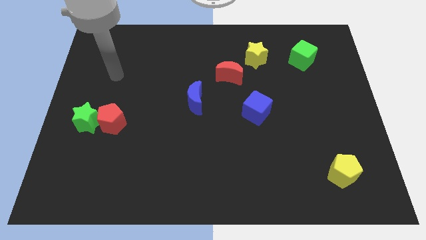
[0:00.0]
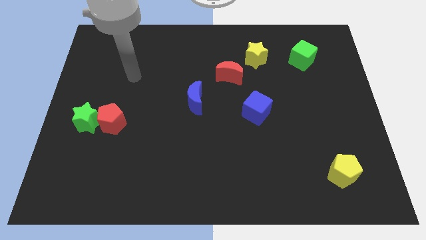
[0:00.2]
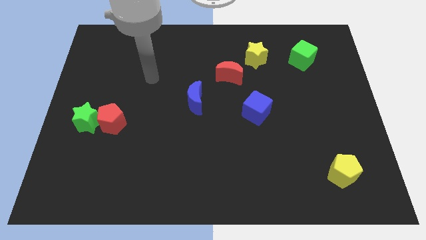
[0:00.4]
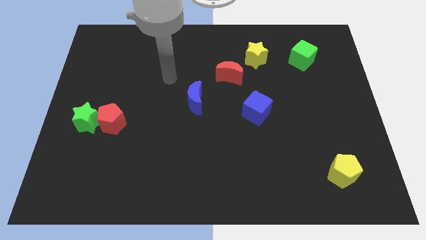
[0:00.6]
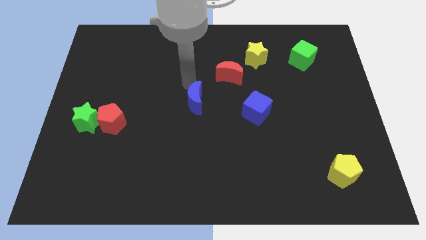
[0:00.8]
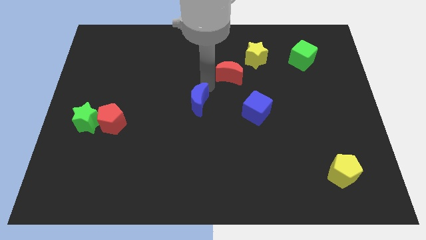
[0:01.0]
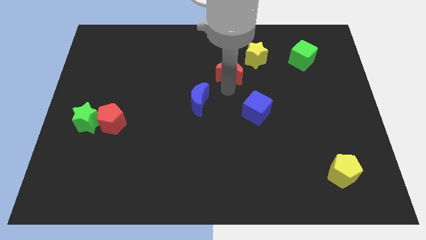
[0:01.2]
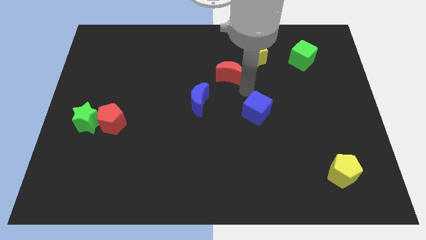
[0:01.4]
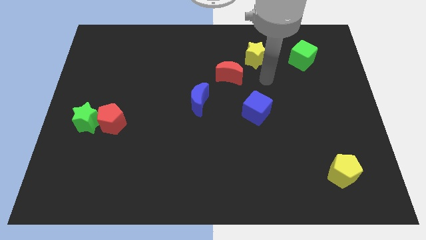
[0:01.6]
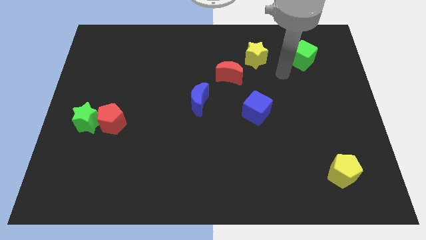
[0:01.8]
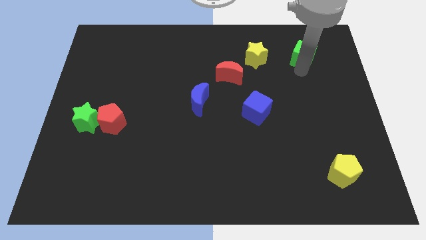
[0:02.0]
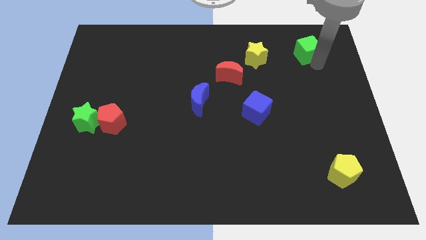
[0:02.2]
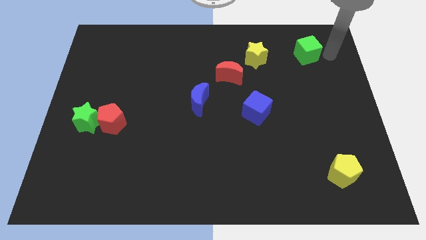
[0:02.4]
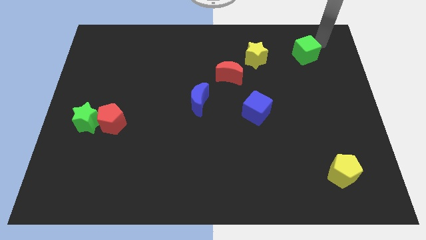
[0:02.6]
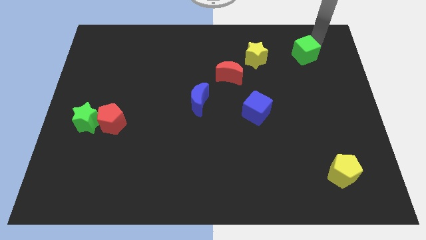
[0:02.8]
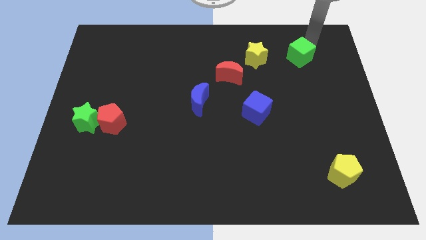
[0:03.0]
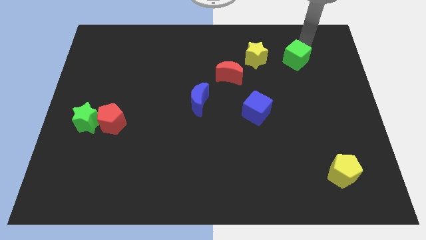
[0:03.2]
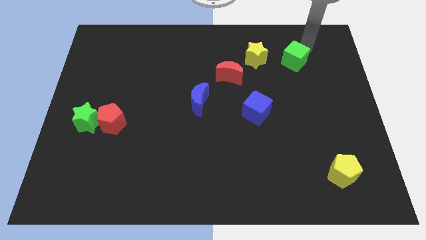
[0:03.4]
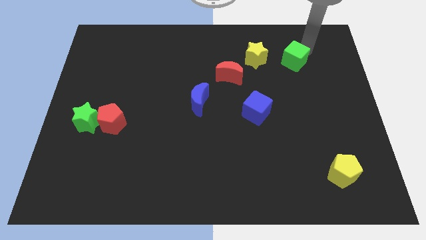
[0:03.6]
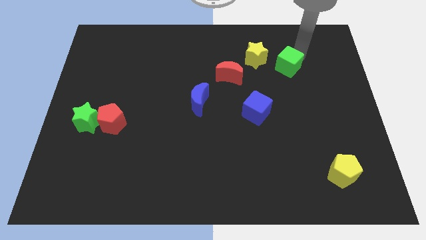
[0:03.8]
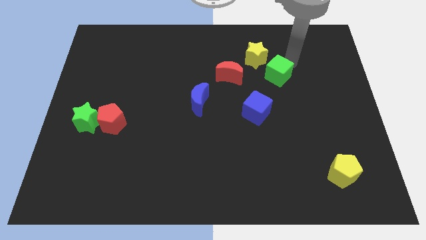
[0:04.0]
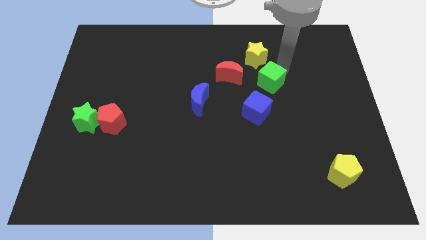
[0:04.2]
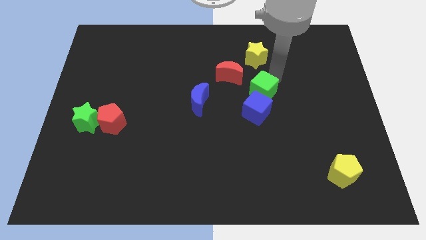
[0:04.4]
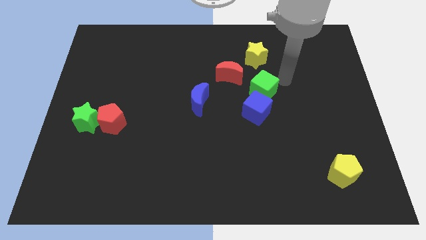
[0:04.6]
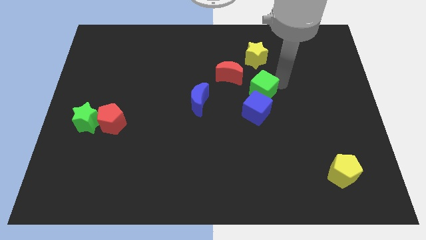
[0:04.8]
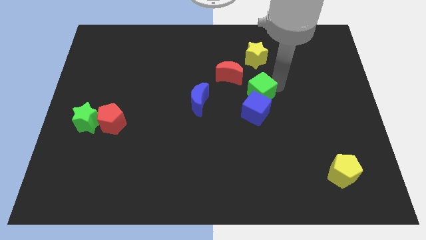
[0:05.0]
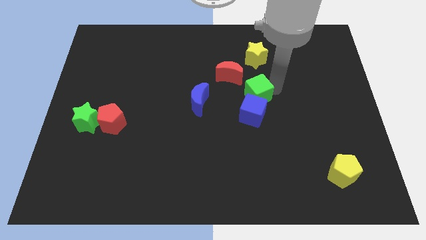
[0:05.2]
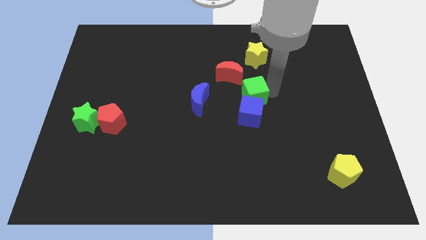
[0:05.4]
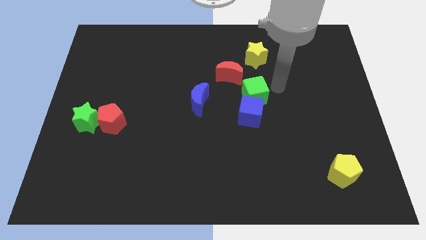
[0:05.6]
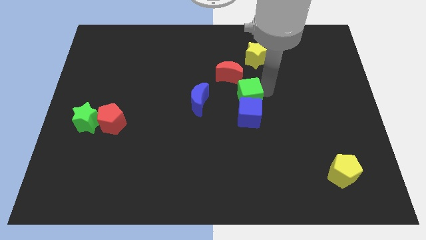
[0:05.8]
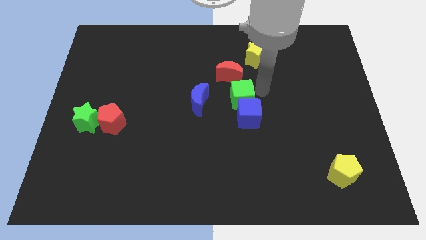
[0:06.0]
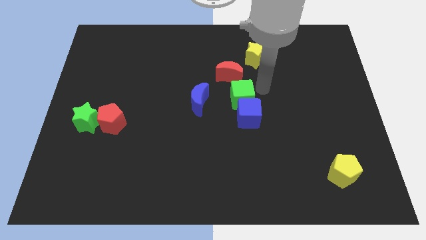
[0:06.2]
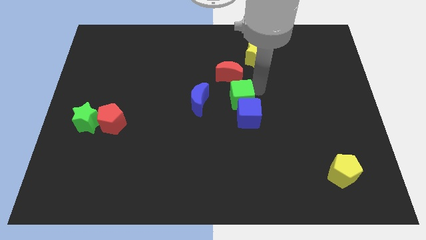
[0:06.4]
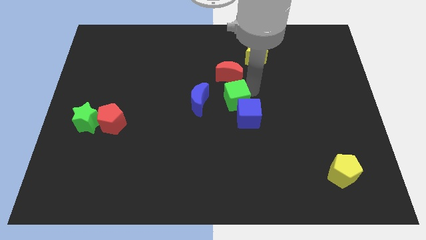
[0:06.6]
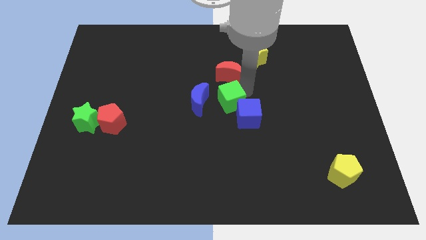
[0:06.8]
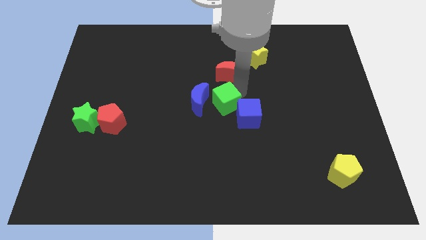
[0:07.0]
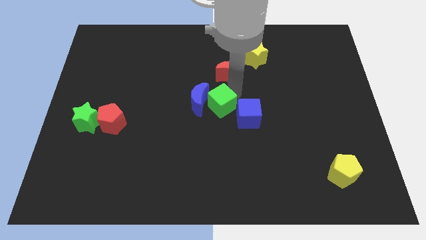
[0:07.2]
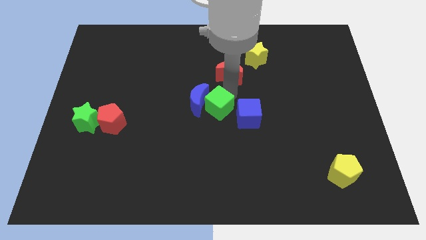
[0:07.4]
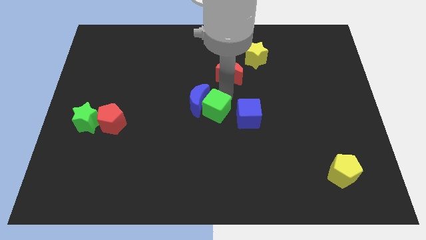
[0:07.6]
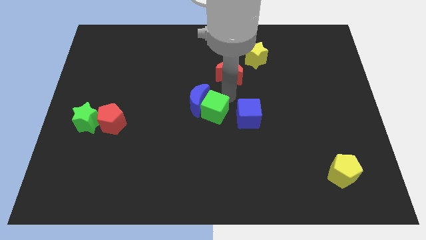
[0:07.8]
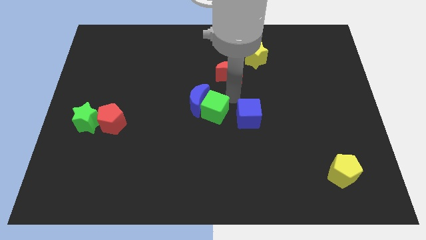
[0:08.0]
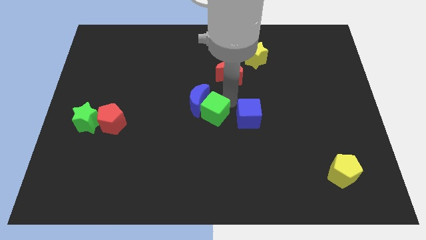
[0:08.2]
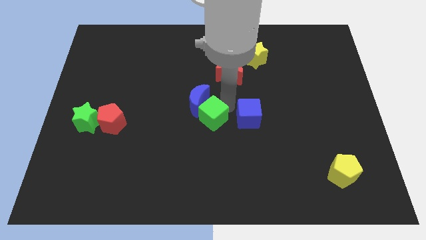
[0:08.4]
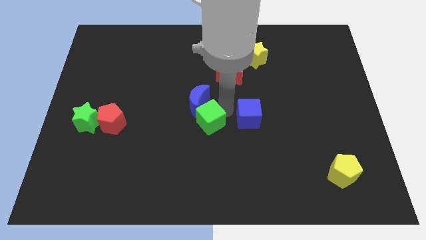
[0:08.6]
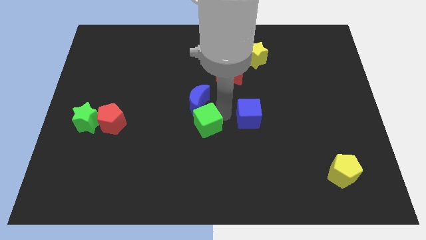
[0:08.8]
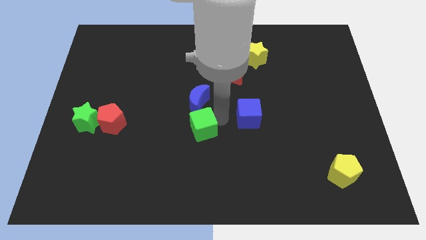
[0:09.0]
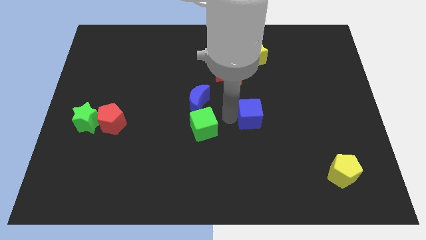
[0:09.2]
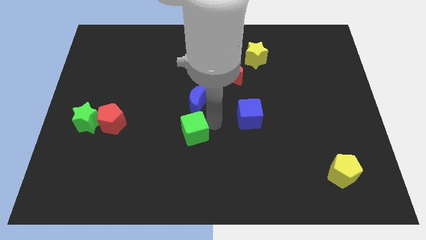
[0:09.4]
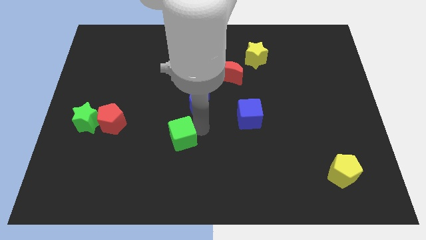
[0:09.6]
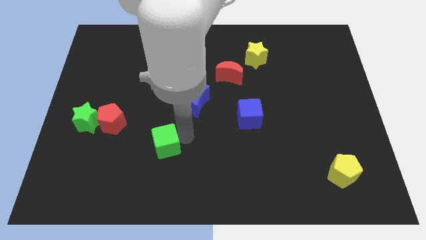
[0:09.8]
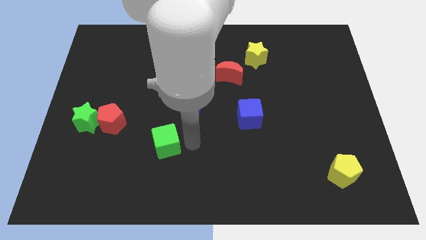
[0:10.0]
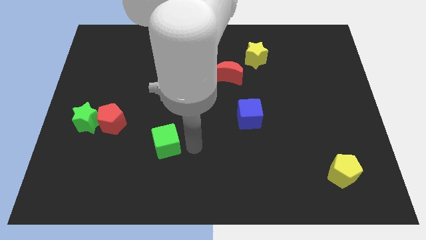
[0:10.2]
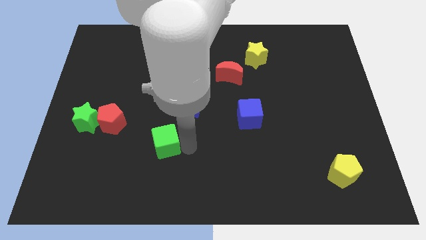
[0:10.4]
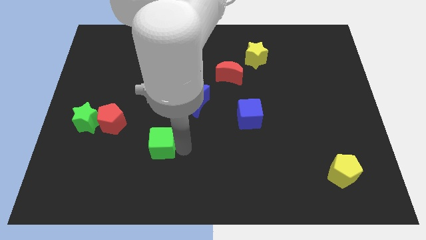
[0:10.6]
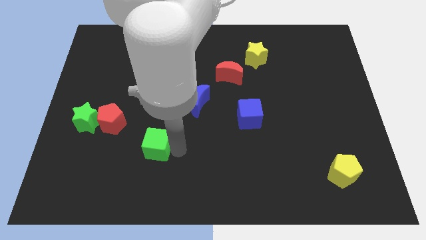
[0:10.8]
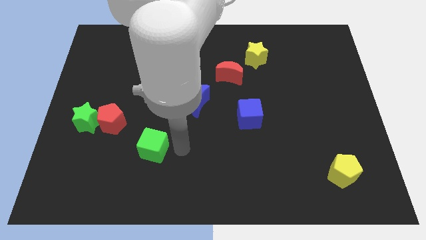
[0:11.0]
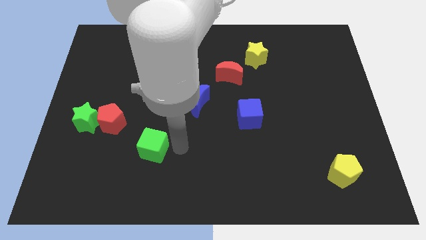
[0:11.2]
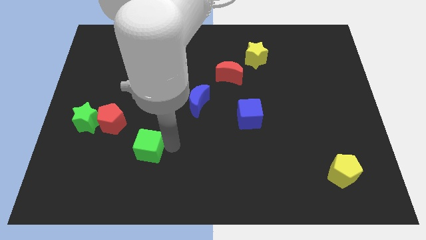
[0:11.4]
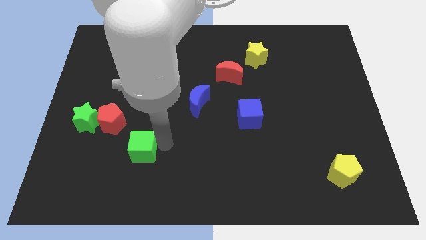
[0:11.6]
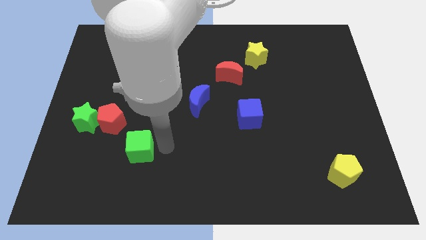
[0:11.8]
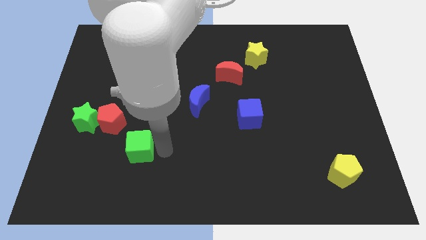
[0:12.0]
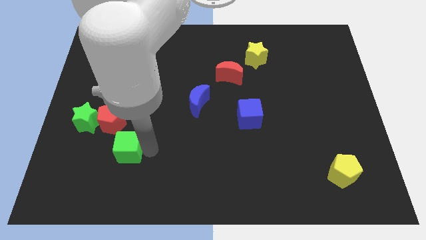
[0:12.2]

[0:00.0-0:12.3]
move the green cube to the bottom side of the red pentagon

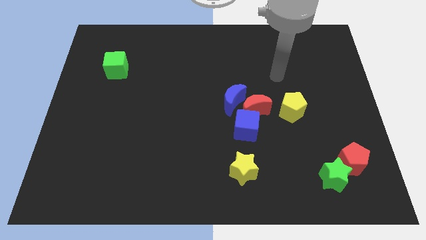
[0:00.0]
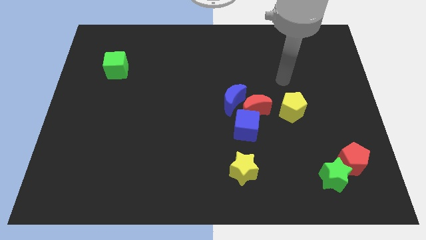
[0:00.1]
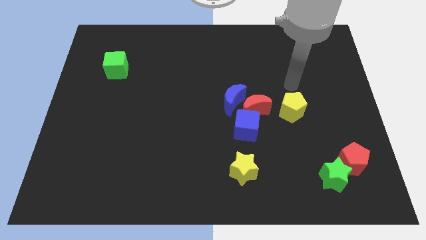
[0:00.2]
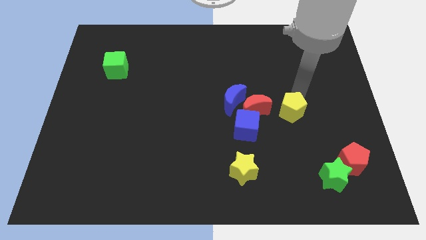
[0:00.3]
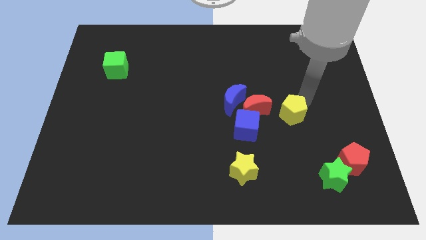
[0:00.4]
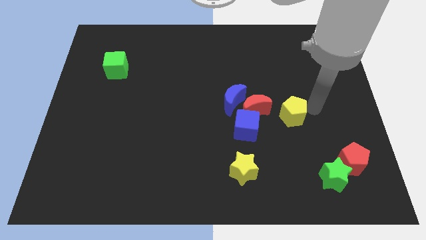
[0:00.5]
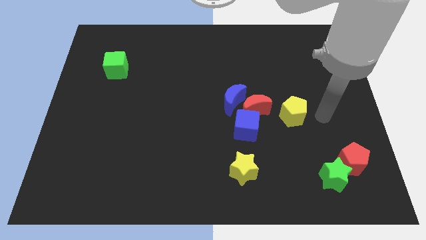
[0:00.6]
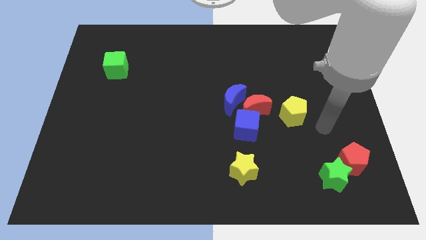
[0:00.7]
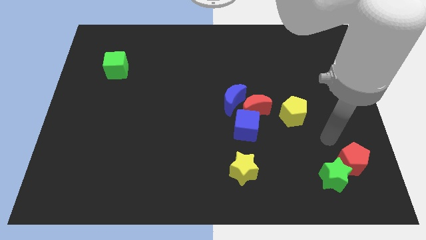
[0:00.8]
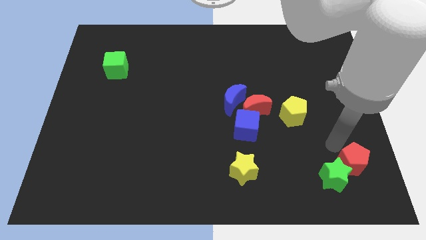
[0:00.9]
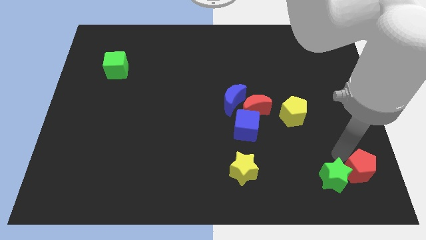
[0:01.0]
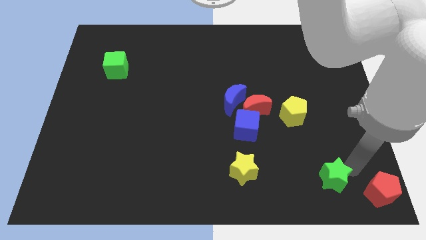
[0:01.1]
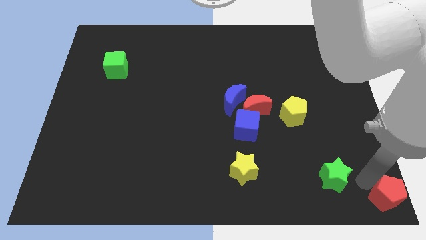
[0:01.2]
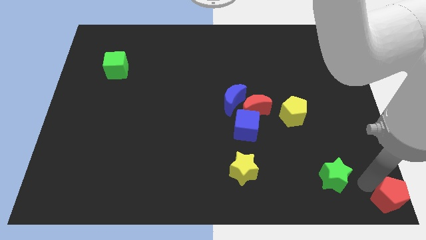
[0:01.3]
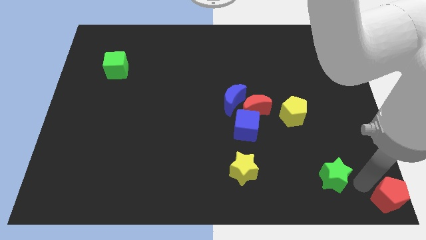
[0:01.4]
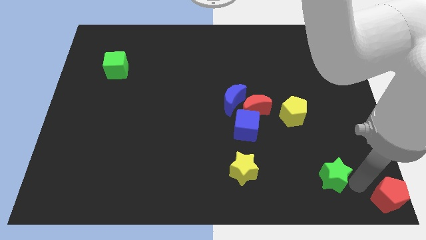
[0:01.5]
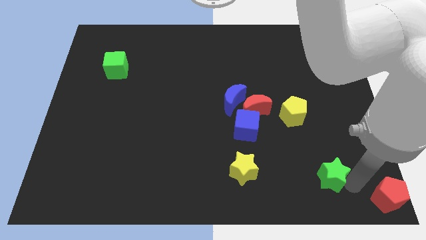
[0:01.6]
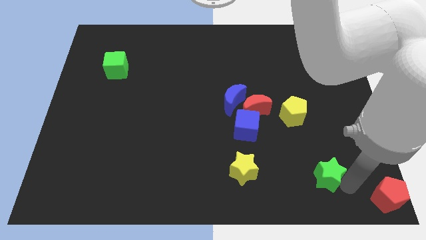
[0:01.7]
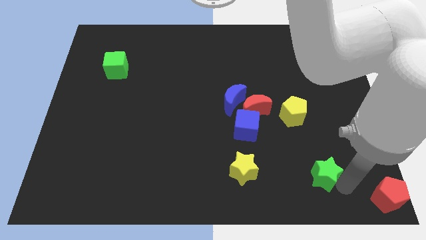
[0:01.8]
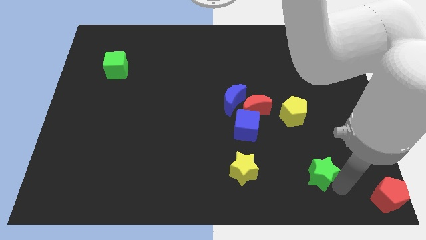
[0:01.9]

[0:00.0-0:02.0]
slide the green star just right of the yellow star
